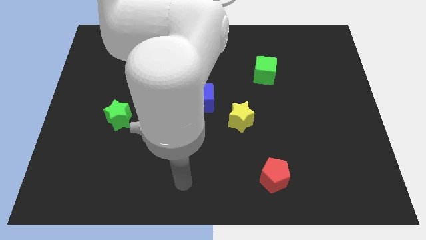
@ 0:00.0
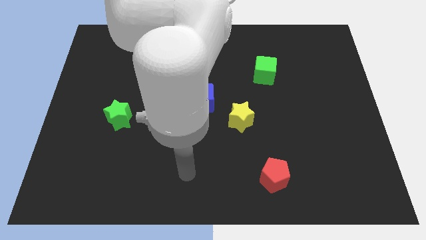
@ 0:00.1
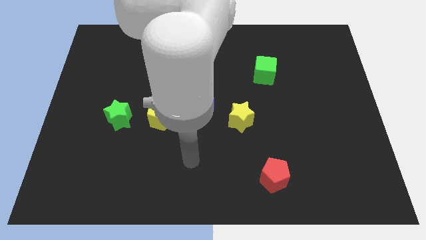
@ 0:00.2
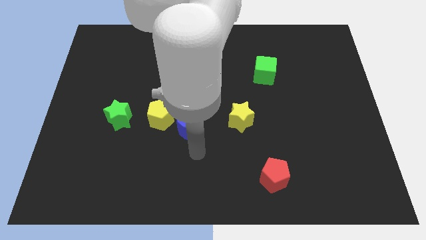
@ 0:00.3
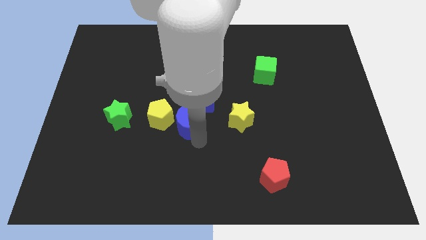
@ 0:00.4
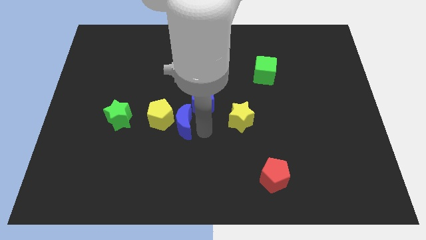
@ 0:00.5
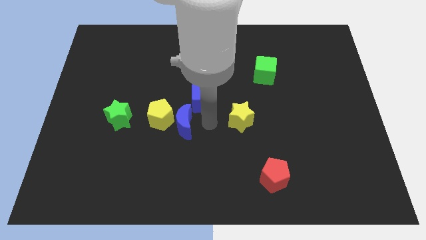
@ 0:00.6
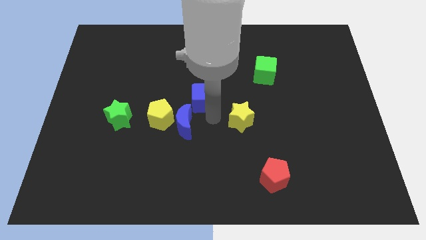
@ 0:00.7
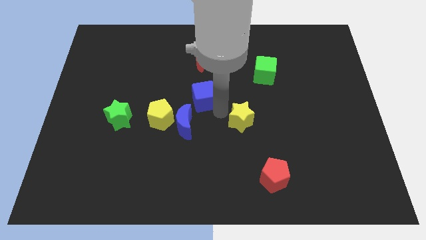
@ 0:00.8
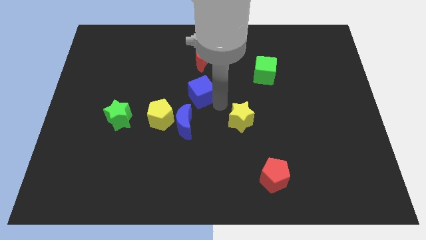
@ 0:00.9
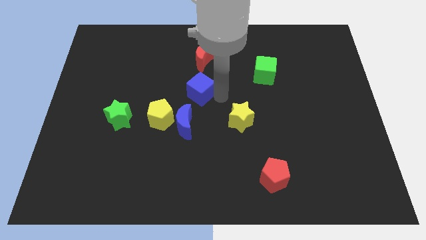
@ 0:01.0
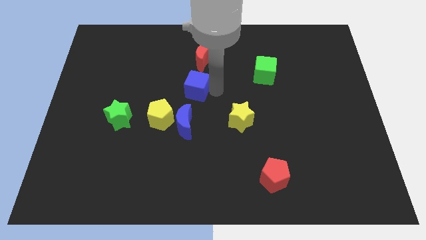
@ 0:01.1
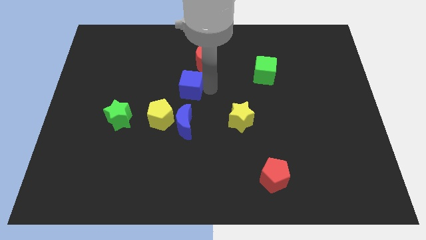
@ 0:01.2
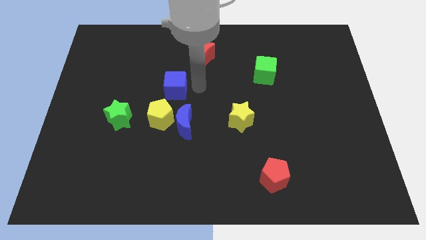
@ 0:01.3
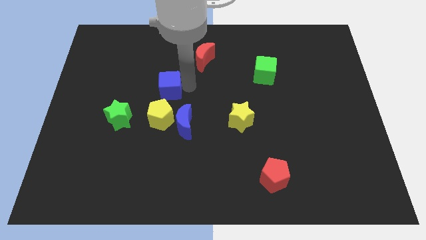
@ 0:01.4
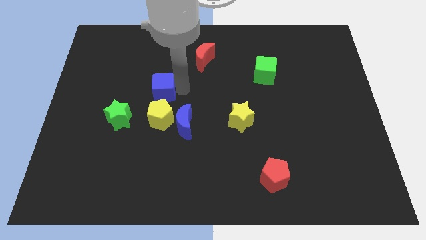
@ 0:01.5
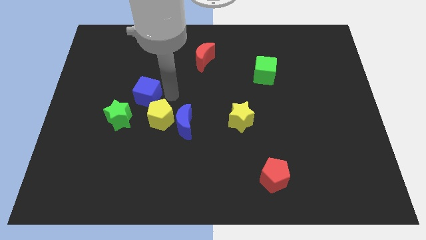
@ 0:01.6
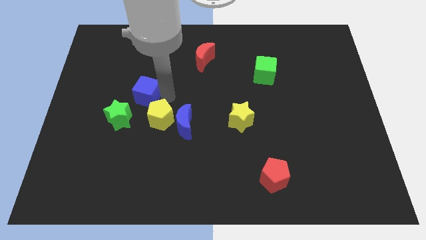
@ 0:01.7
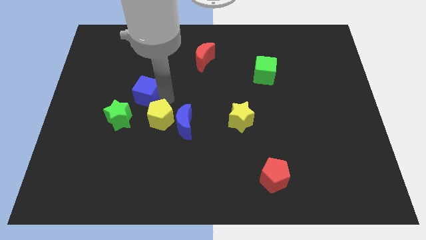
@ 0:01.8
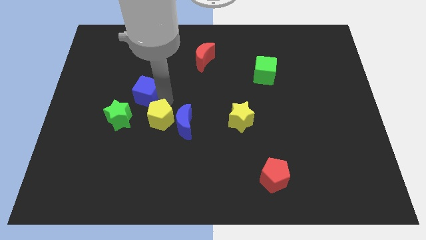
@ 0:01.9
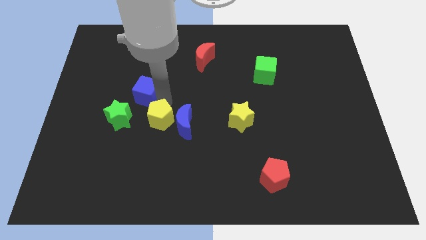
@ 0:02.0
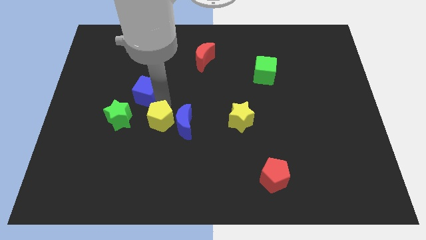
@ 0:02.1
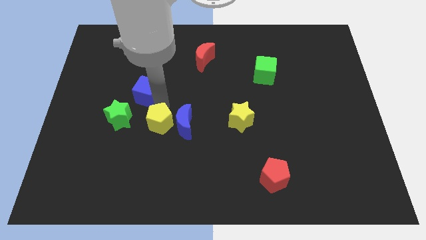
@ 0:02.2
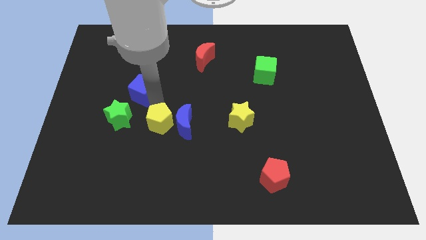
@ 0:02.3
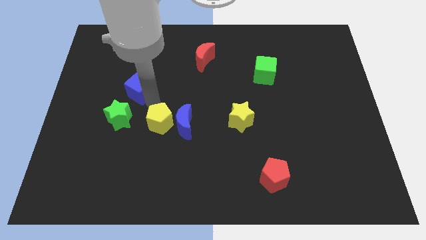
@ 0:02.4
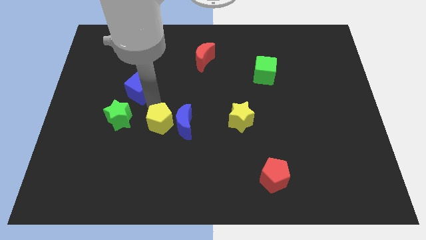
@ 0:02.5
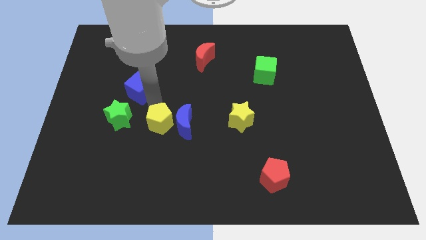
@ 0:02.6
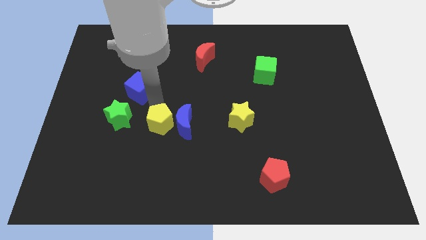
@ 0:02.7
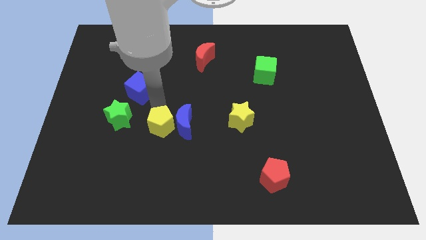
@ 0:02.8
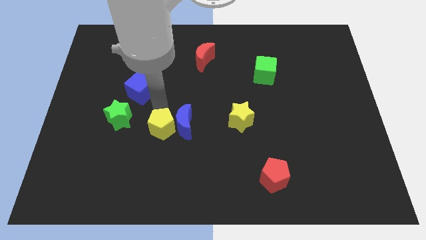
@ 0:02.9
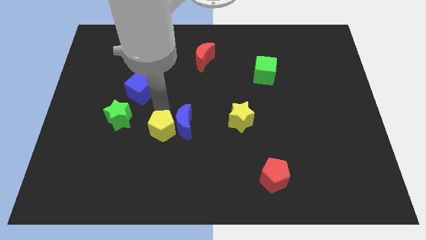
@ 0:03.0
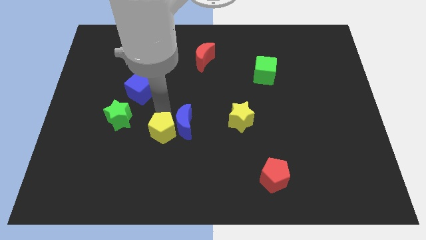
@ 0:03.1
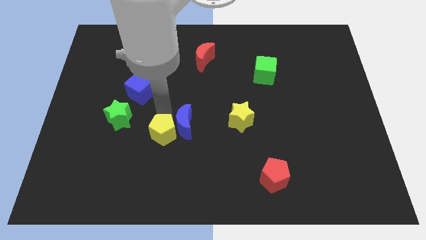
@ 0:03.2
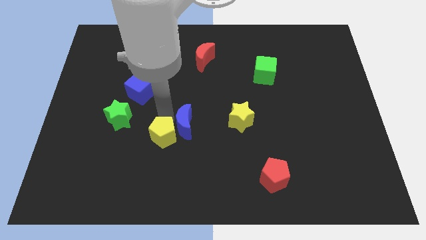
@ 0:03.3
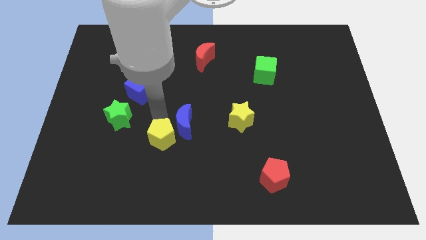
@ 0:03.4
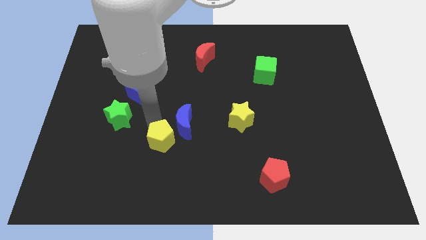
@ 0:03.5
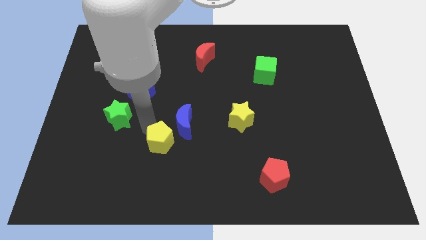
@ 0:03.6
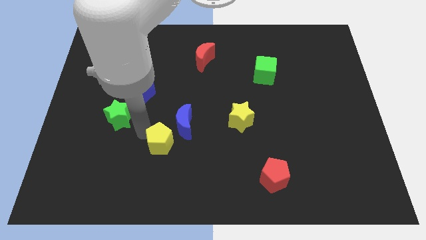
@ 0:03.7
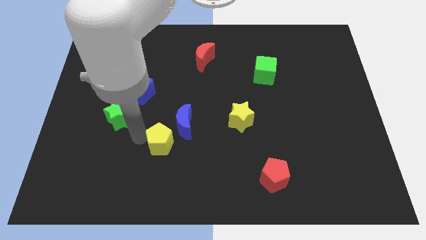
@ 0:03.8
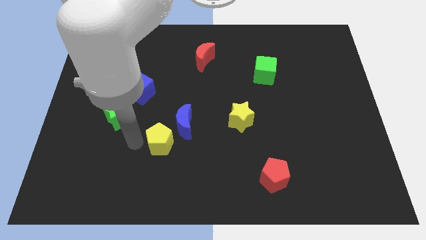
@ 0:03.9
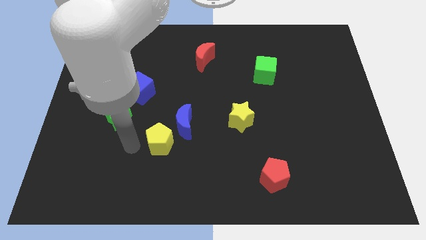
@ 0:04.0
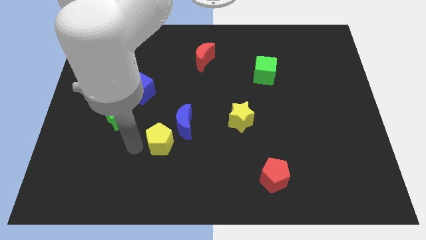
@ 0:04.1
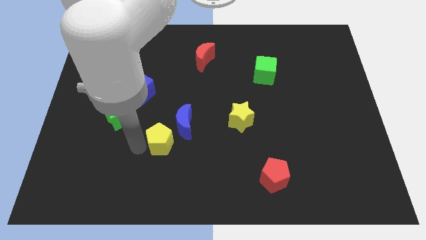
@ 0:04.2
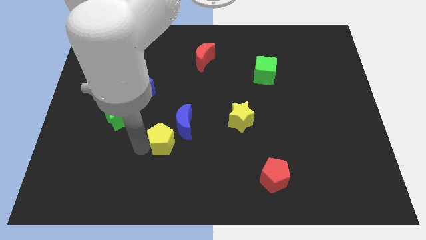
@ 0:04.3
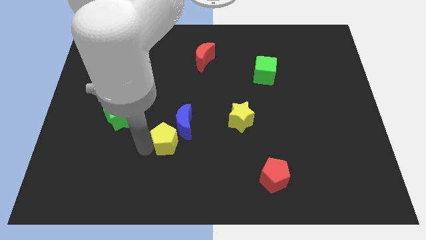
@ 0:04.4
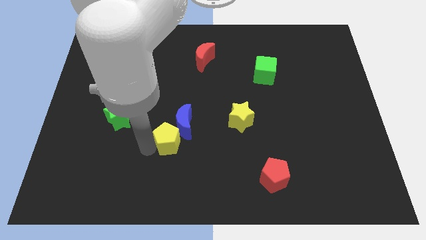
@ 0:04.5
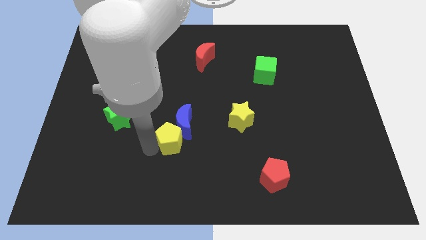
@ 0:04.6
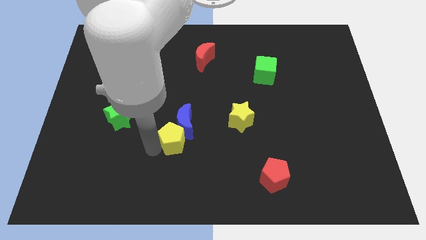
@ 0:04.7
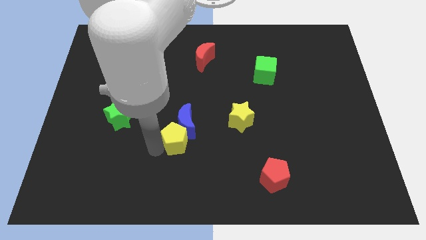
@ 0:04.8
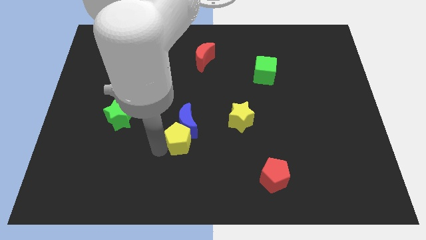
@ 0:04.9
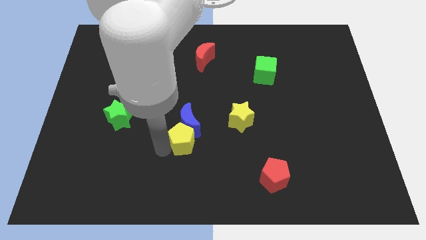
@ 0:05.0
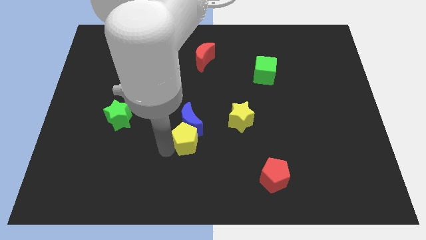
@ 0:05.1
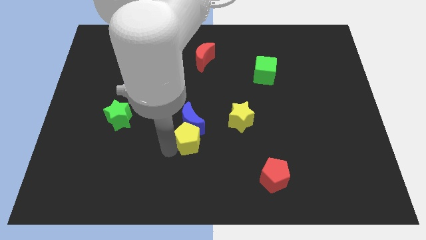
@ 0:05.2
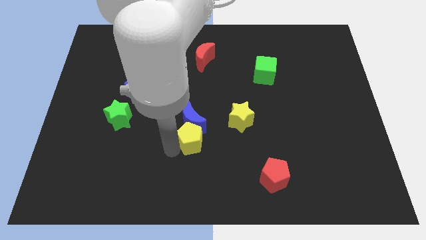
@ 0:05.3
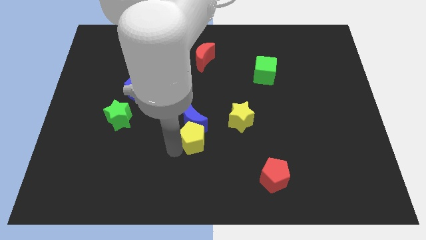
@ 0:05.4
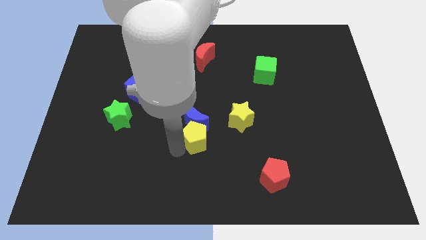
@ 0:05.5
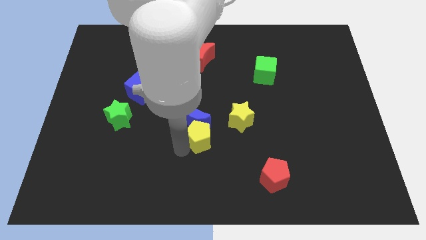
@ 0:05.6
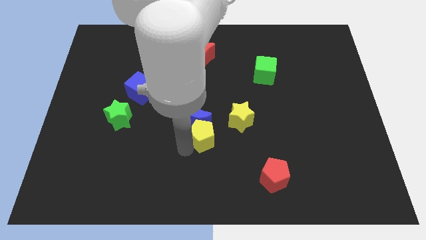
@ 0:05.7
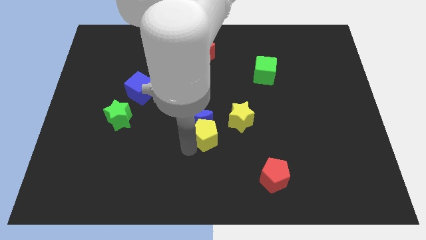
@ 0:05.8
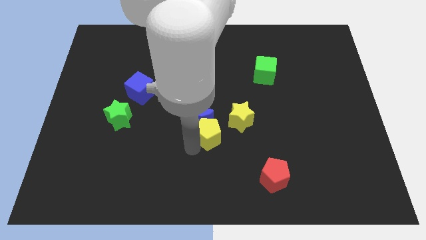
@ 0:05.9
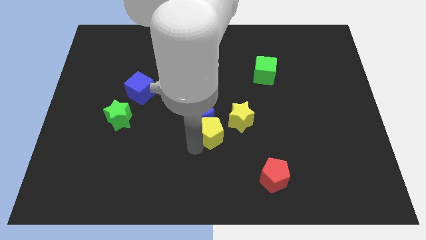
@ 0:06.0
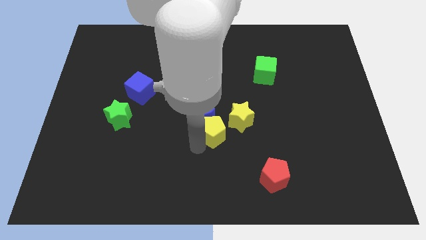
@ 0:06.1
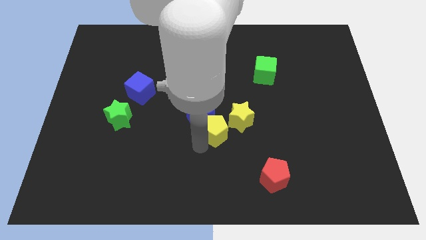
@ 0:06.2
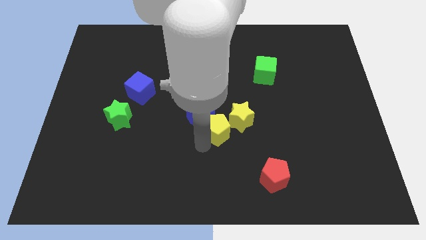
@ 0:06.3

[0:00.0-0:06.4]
slide the yellow pentagon close to the yellow star

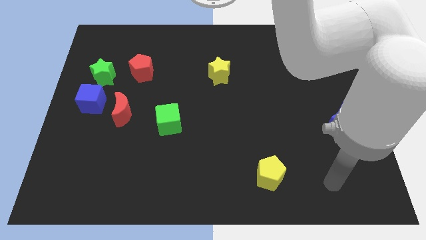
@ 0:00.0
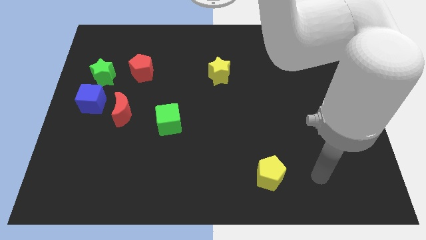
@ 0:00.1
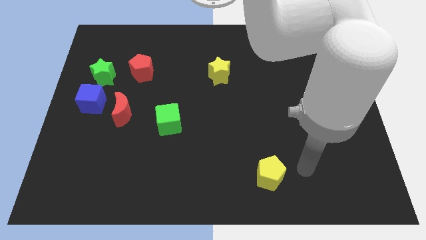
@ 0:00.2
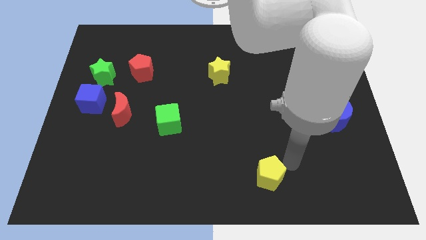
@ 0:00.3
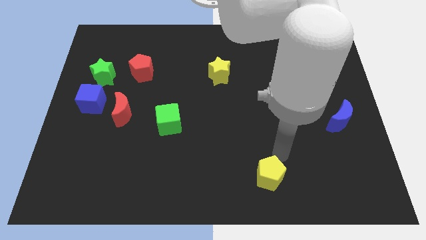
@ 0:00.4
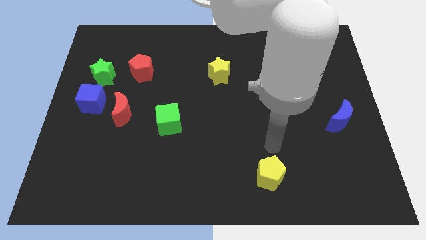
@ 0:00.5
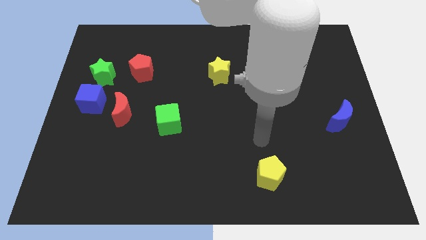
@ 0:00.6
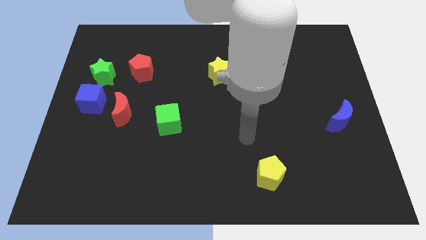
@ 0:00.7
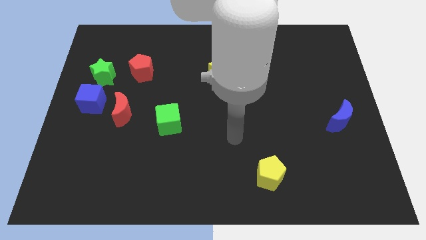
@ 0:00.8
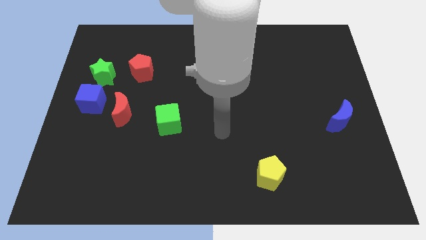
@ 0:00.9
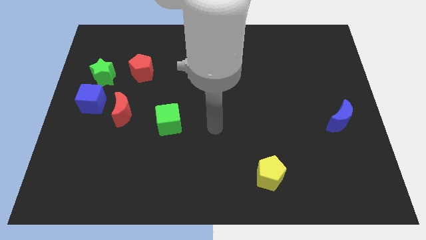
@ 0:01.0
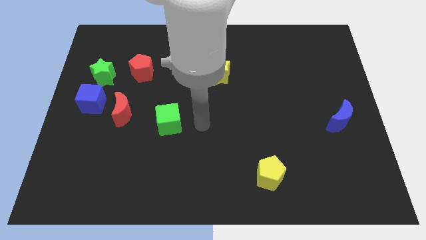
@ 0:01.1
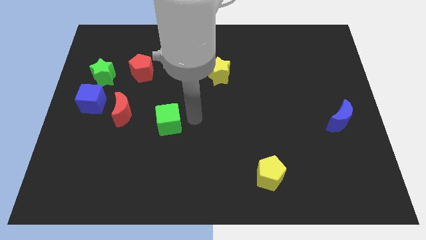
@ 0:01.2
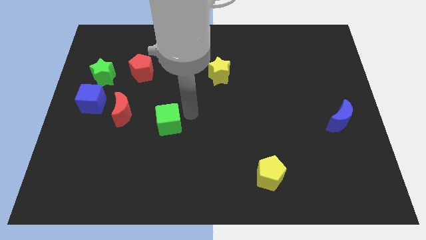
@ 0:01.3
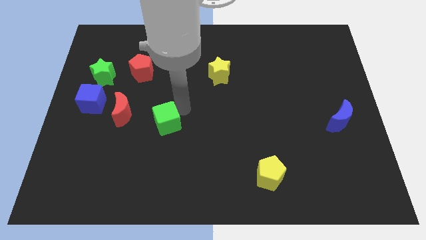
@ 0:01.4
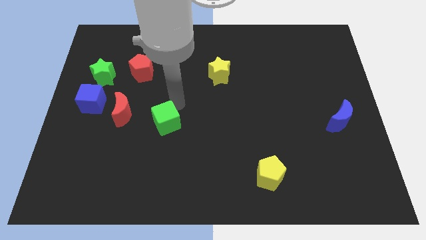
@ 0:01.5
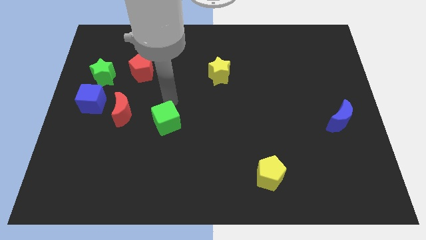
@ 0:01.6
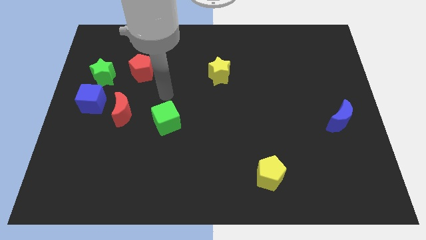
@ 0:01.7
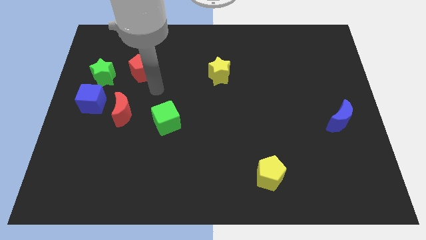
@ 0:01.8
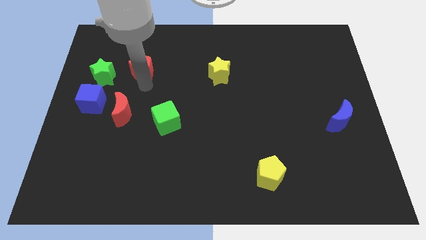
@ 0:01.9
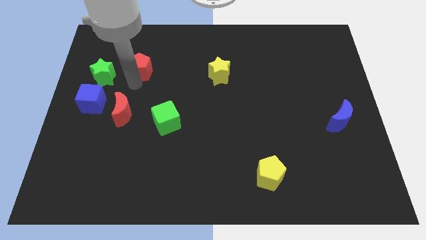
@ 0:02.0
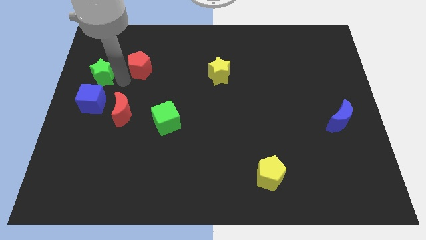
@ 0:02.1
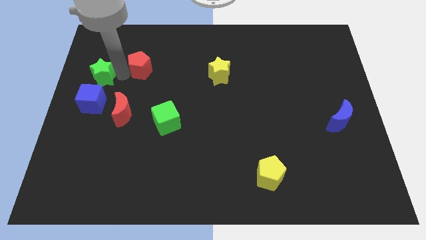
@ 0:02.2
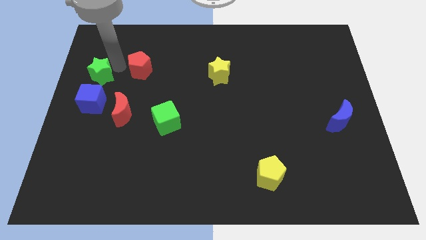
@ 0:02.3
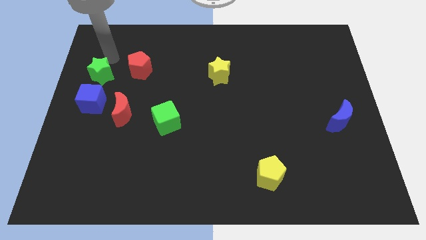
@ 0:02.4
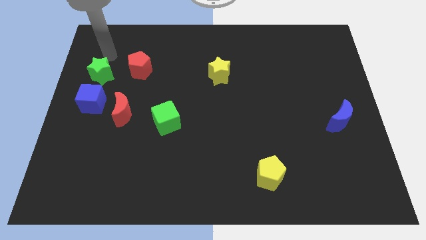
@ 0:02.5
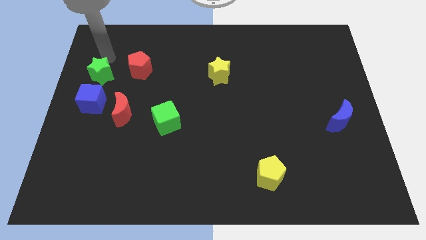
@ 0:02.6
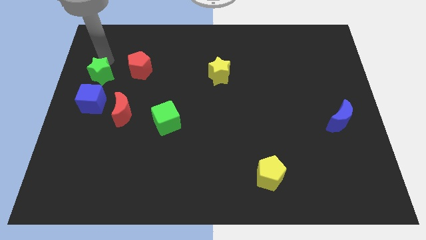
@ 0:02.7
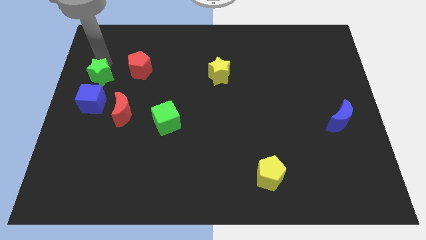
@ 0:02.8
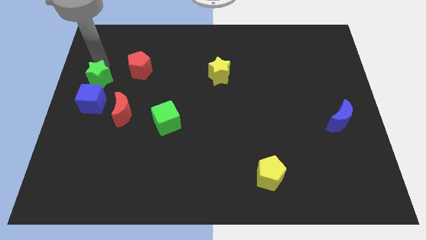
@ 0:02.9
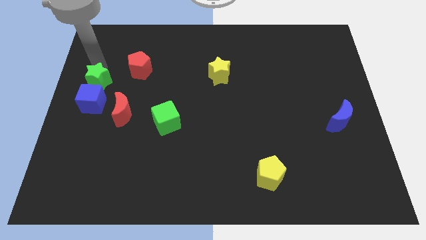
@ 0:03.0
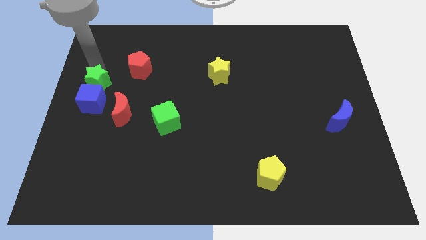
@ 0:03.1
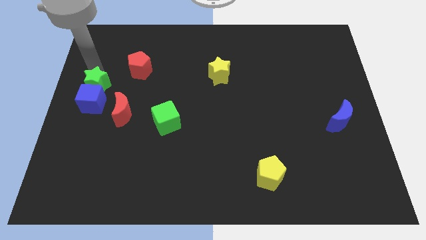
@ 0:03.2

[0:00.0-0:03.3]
push the green star to the blue cube
